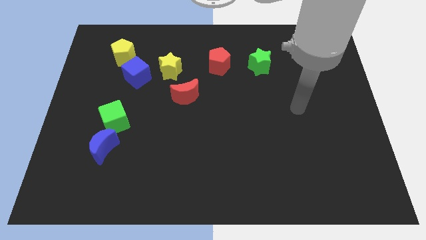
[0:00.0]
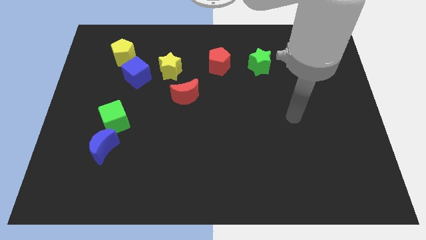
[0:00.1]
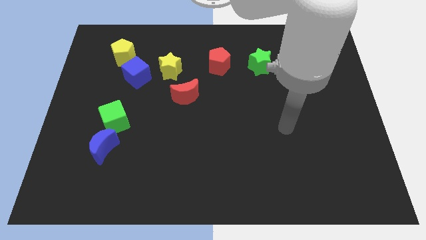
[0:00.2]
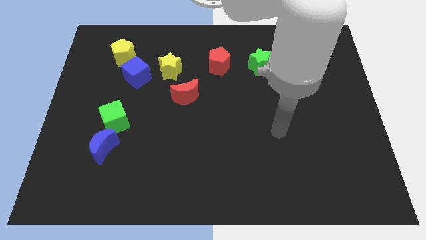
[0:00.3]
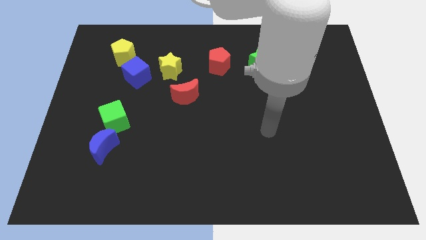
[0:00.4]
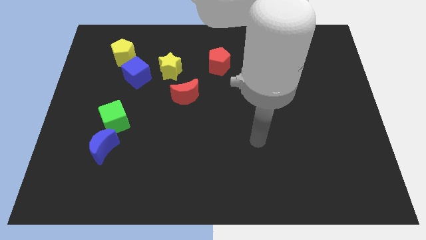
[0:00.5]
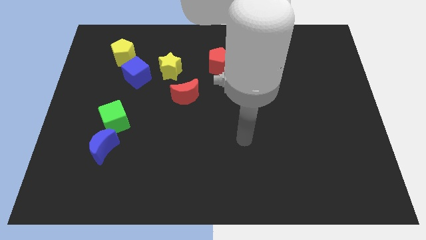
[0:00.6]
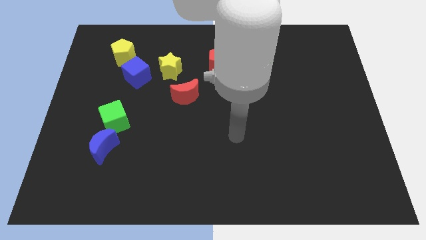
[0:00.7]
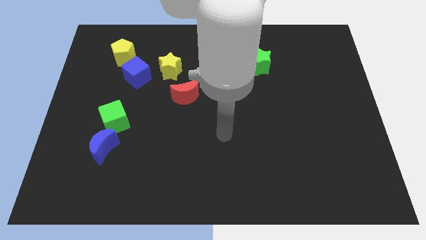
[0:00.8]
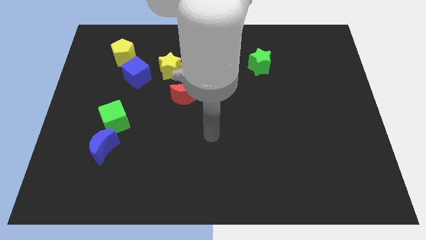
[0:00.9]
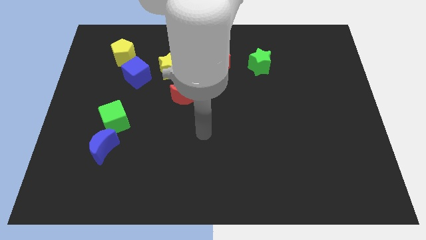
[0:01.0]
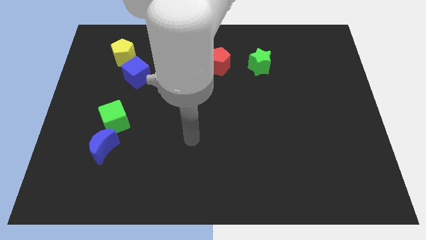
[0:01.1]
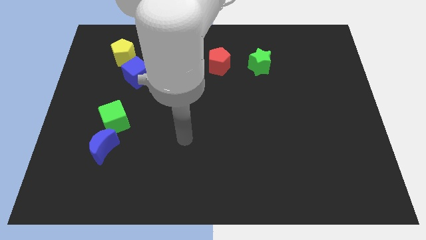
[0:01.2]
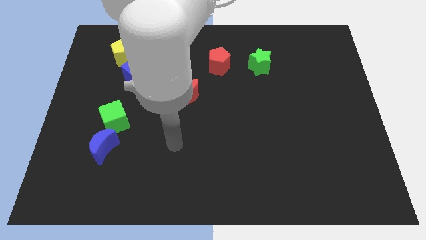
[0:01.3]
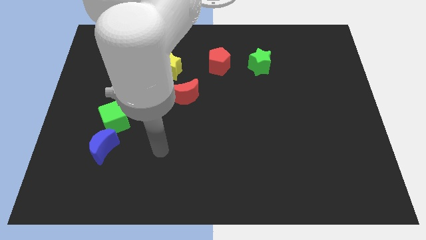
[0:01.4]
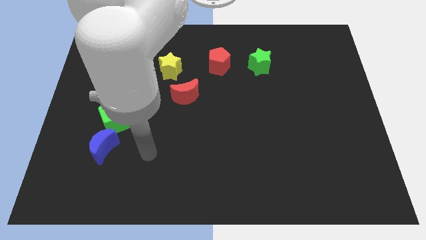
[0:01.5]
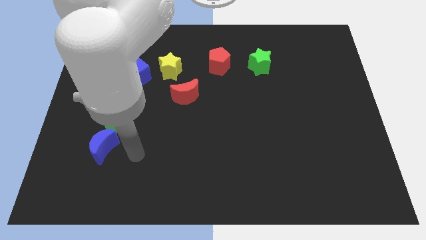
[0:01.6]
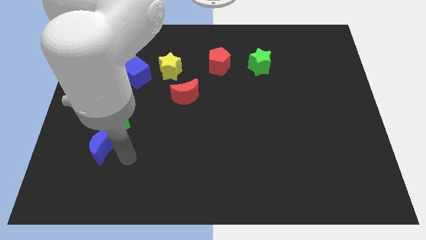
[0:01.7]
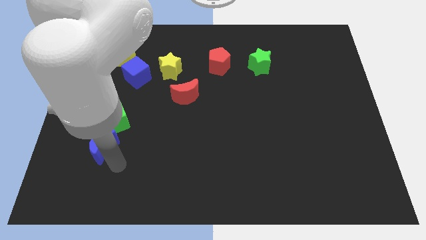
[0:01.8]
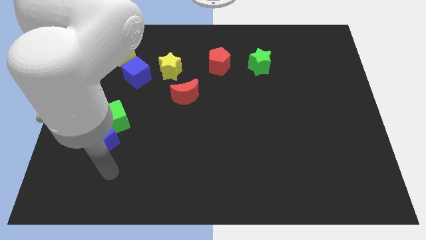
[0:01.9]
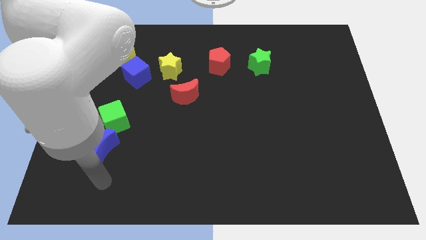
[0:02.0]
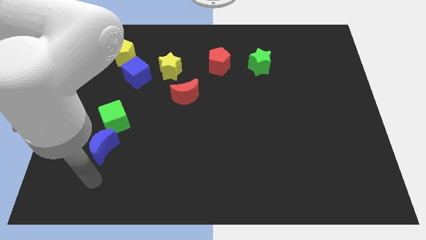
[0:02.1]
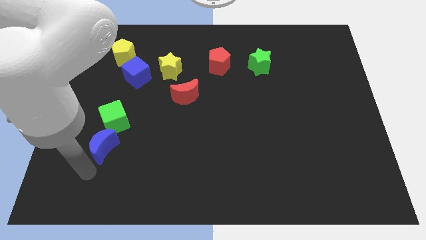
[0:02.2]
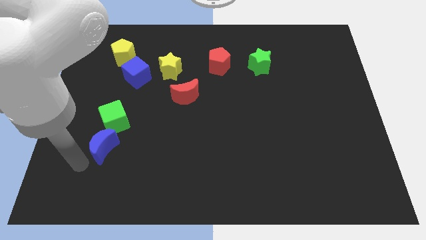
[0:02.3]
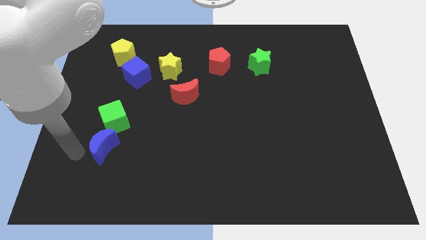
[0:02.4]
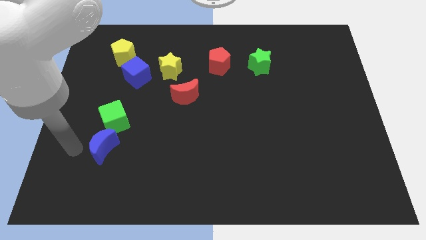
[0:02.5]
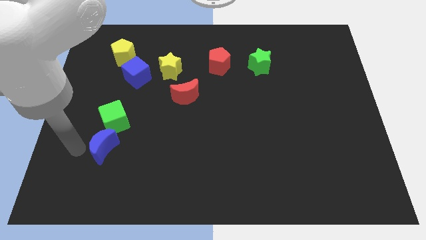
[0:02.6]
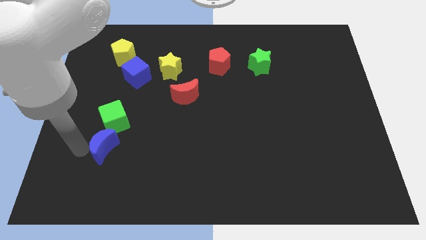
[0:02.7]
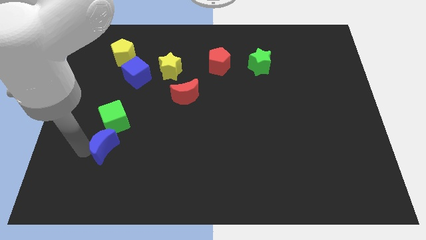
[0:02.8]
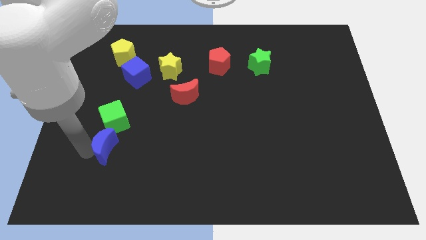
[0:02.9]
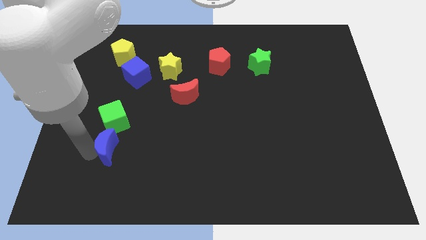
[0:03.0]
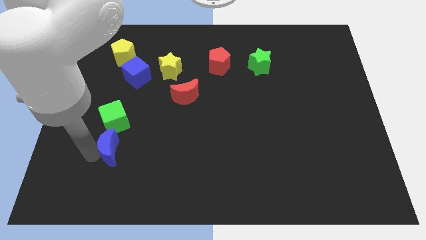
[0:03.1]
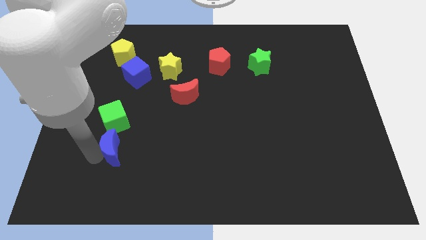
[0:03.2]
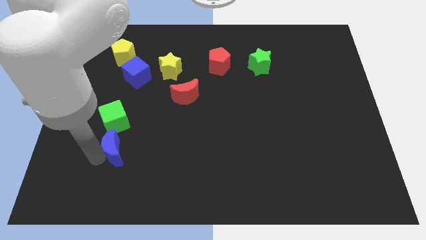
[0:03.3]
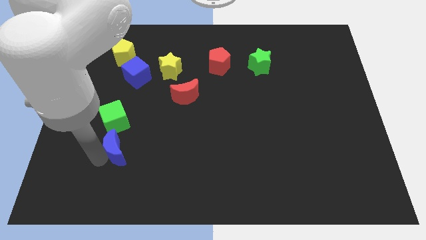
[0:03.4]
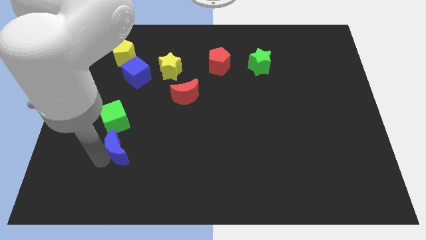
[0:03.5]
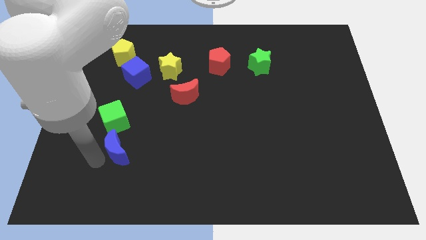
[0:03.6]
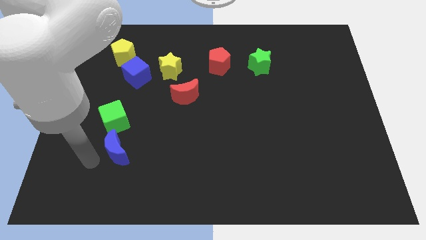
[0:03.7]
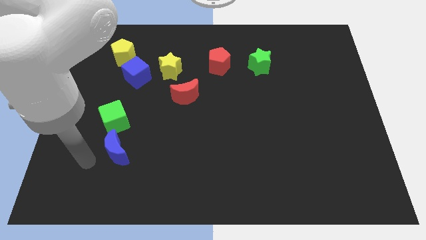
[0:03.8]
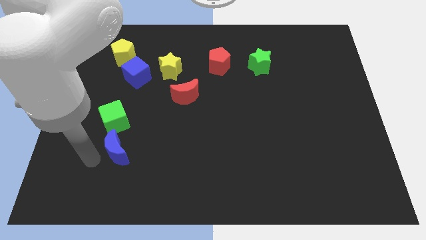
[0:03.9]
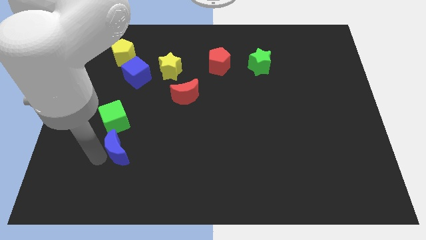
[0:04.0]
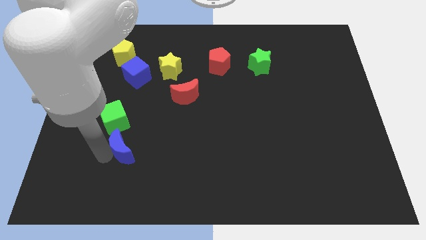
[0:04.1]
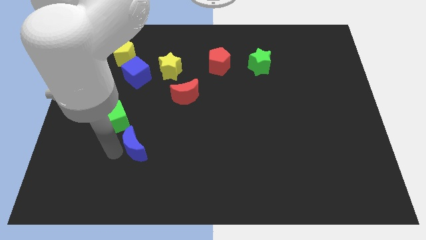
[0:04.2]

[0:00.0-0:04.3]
push the blue moon a little bit to the right

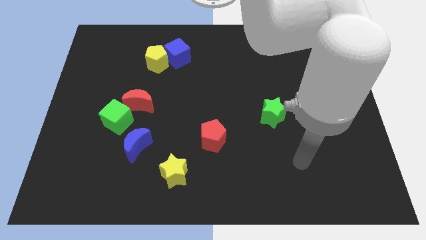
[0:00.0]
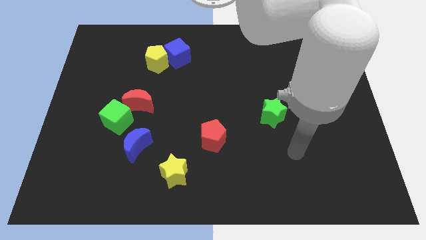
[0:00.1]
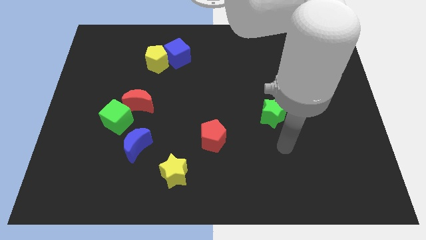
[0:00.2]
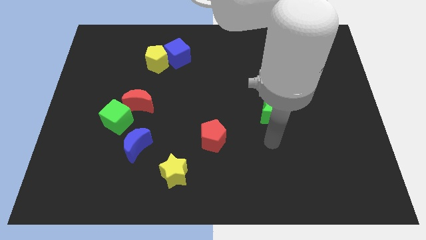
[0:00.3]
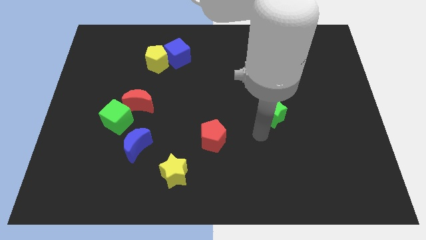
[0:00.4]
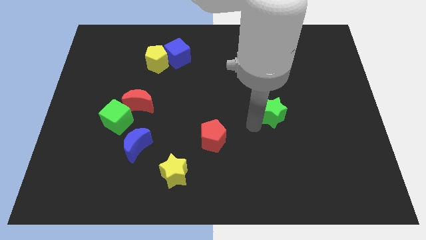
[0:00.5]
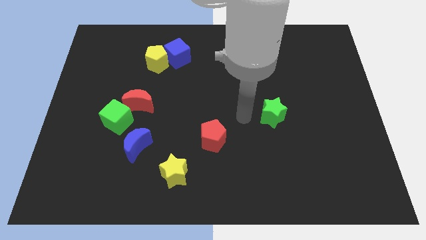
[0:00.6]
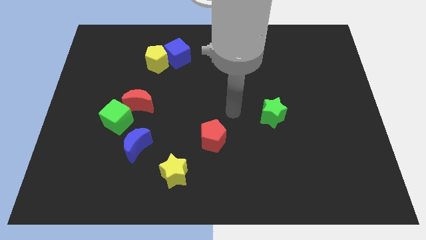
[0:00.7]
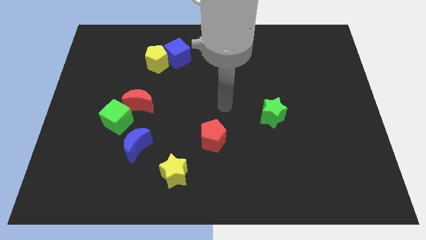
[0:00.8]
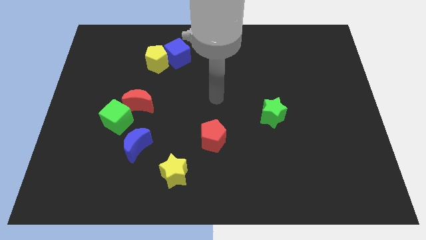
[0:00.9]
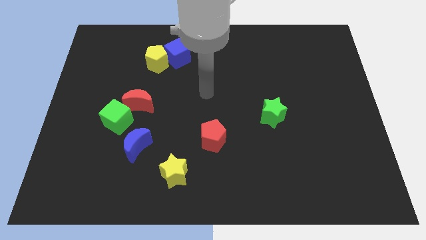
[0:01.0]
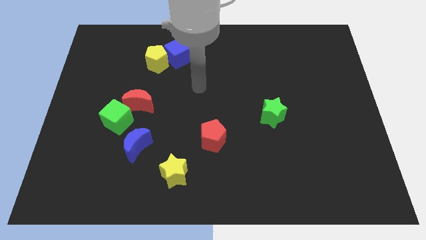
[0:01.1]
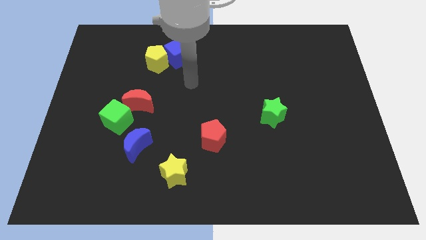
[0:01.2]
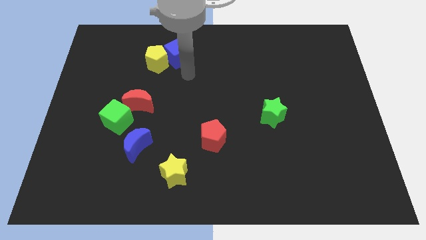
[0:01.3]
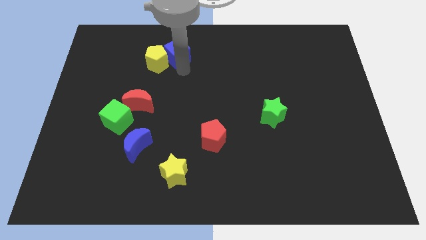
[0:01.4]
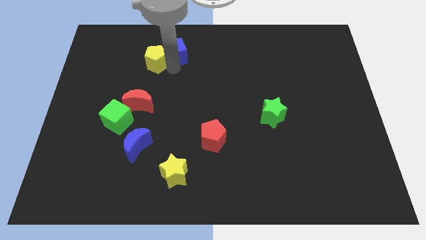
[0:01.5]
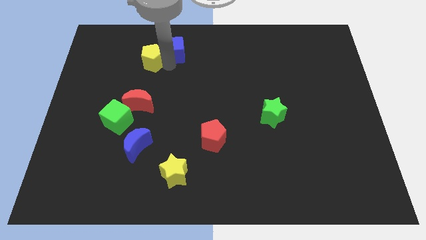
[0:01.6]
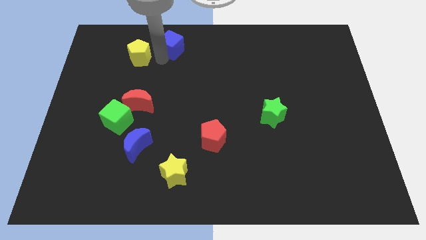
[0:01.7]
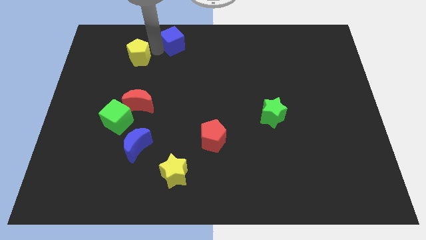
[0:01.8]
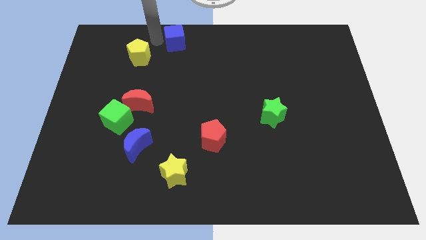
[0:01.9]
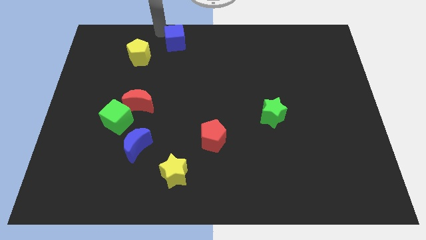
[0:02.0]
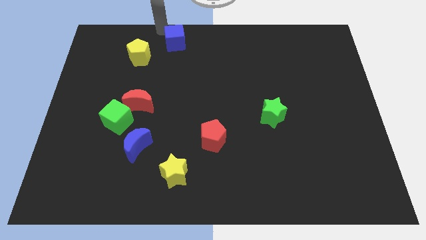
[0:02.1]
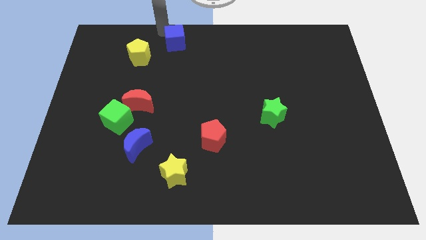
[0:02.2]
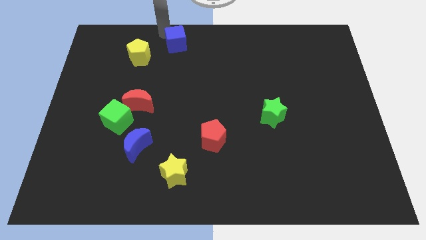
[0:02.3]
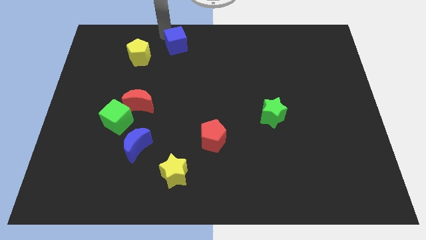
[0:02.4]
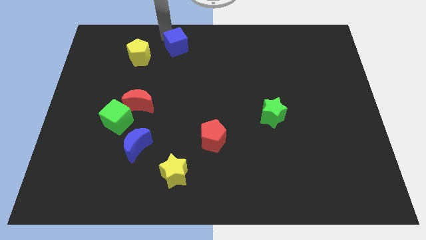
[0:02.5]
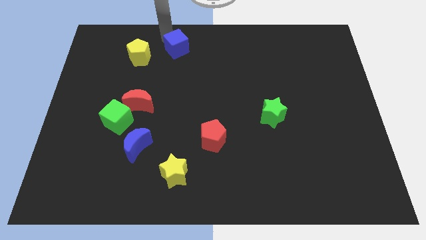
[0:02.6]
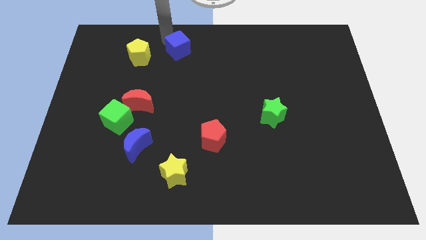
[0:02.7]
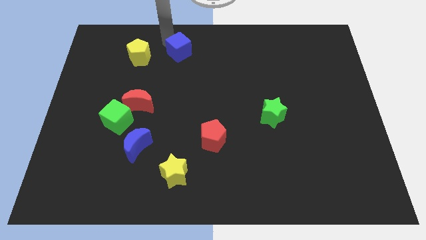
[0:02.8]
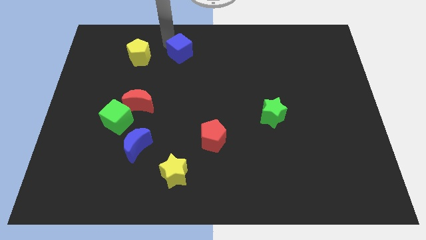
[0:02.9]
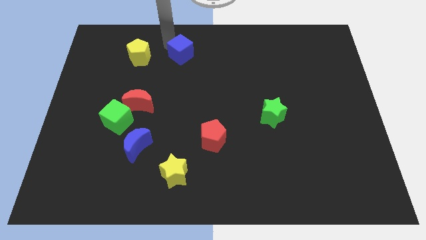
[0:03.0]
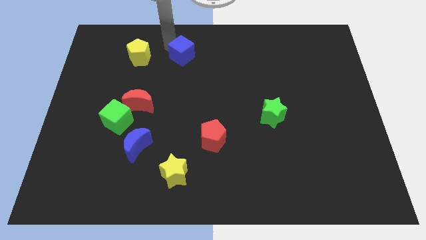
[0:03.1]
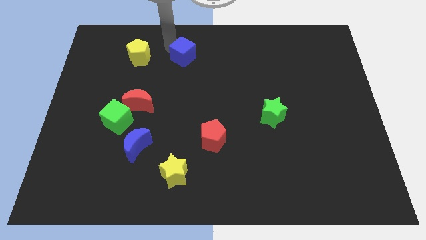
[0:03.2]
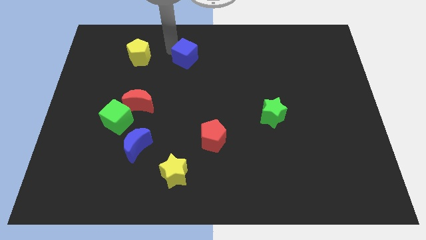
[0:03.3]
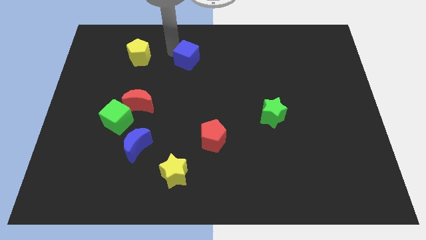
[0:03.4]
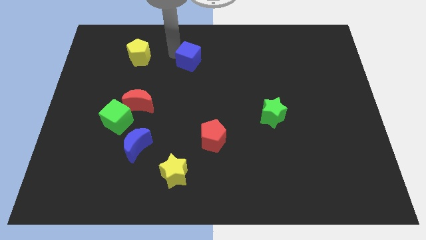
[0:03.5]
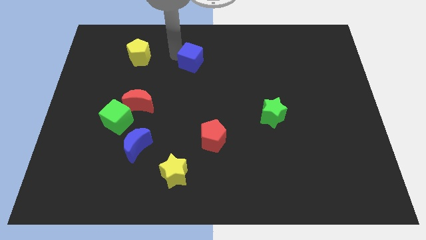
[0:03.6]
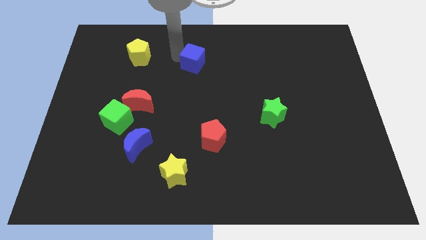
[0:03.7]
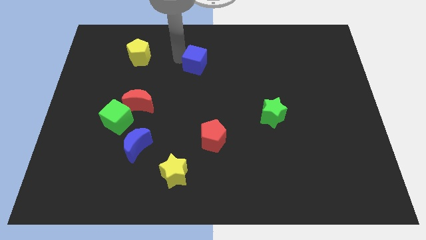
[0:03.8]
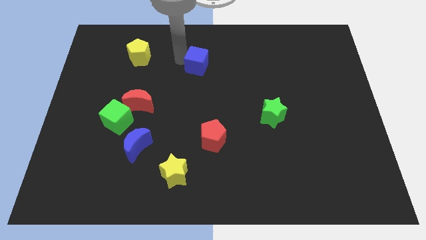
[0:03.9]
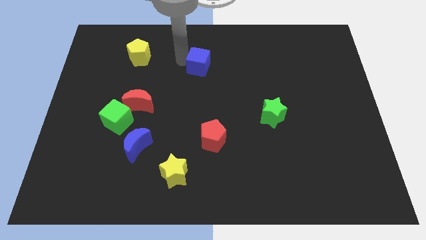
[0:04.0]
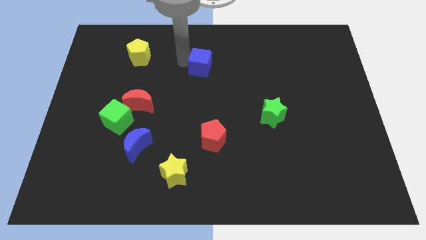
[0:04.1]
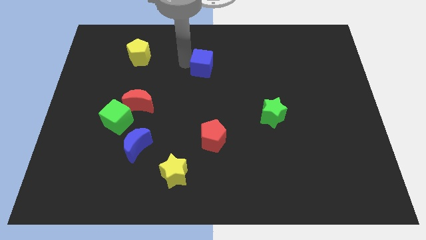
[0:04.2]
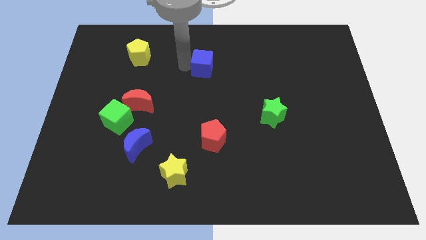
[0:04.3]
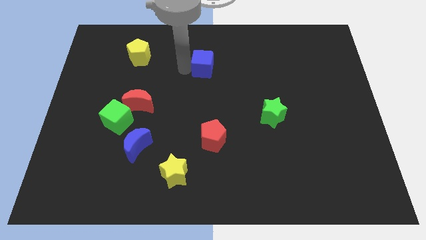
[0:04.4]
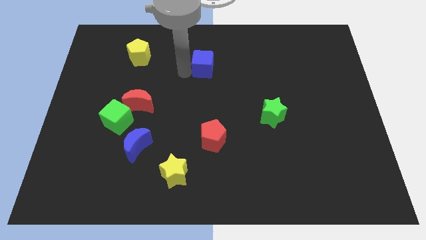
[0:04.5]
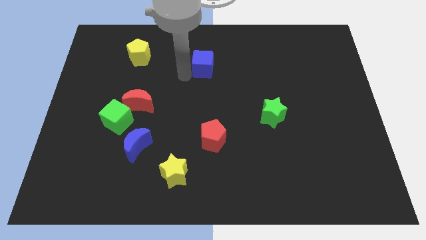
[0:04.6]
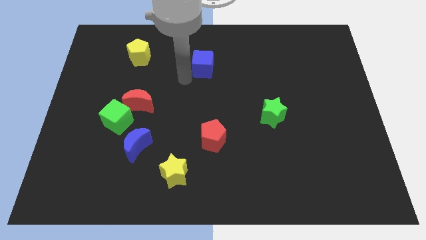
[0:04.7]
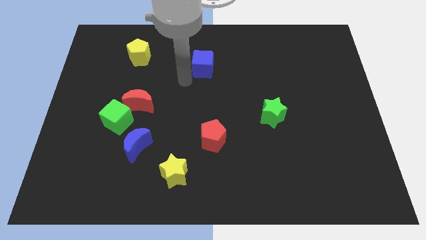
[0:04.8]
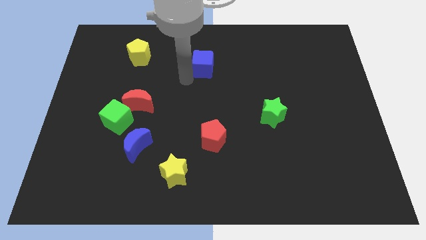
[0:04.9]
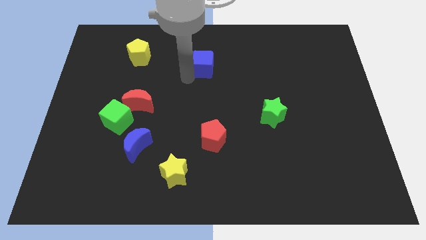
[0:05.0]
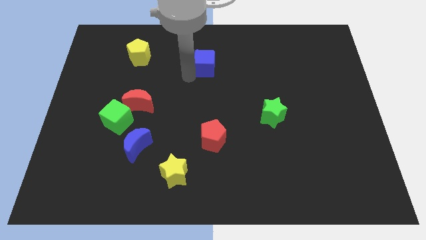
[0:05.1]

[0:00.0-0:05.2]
slightly push the blue cube right
